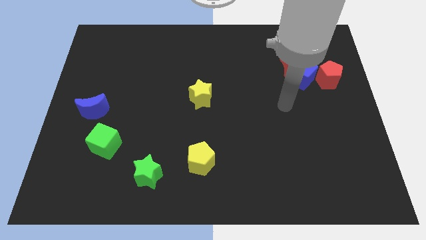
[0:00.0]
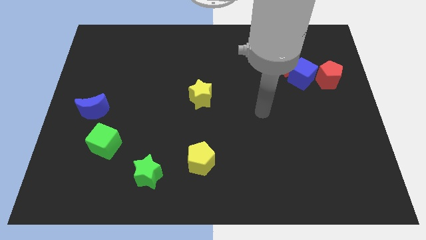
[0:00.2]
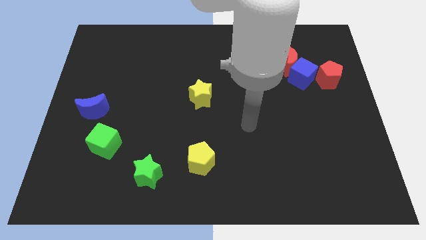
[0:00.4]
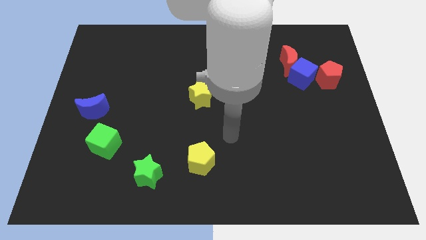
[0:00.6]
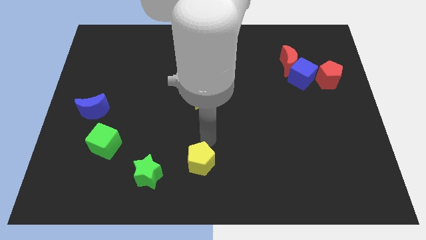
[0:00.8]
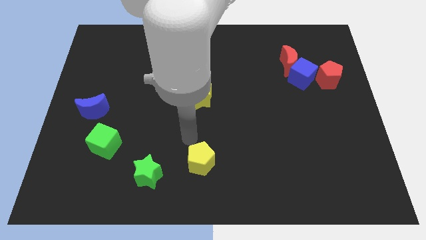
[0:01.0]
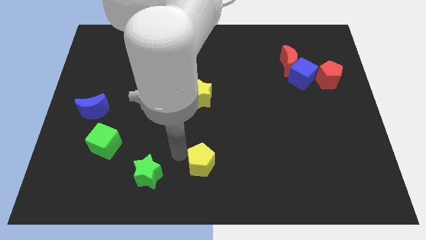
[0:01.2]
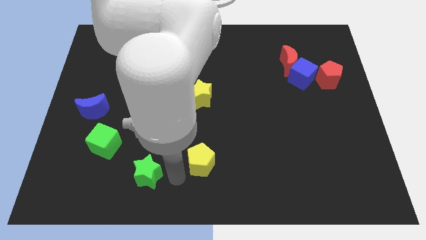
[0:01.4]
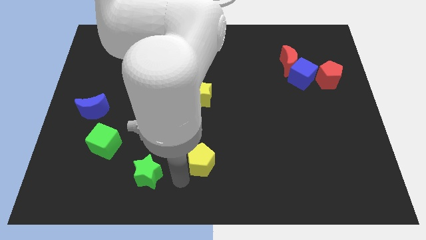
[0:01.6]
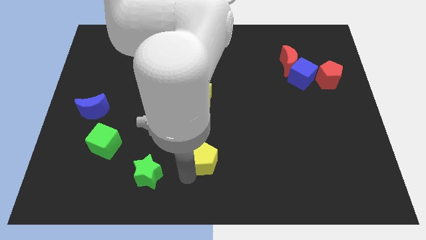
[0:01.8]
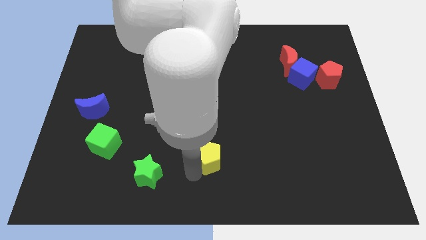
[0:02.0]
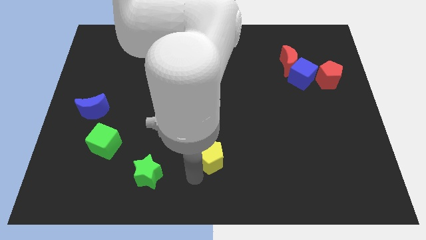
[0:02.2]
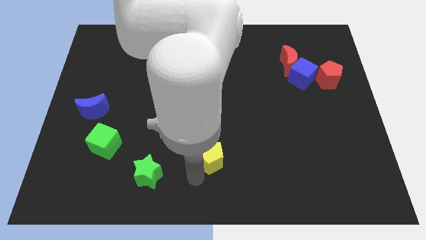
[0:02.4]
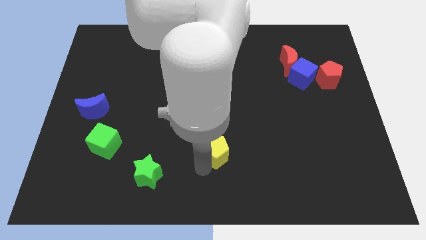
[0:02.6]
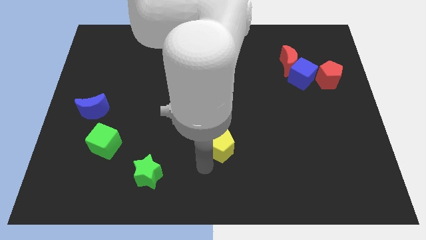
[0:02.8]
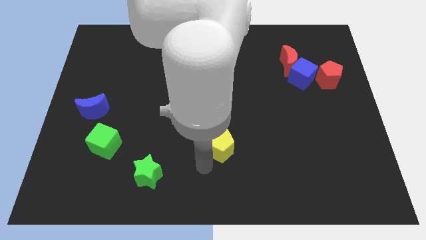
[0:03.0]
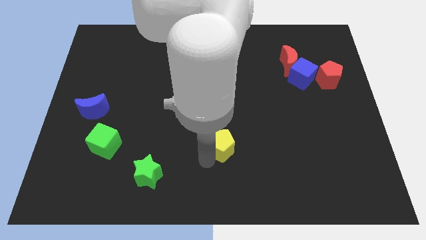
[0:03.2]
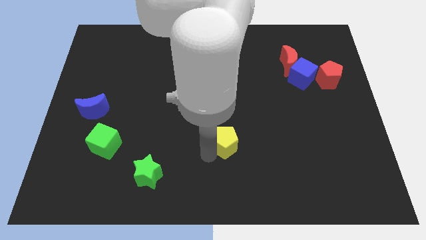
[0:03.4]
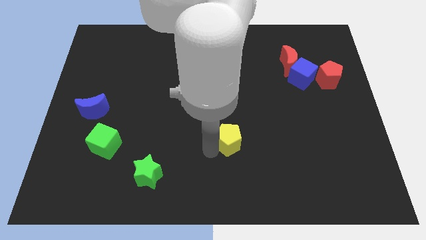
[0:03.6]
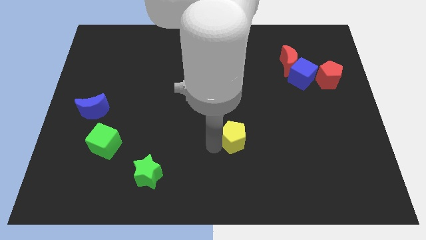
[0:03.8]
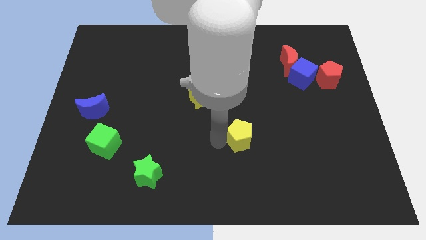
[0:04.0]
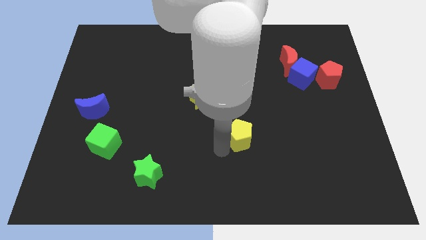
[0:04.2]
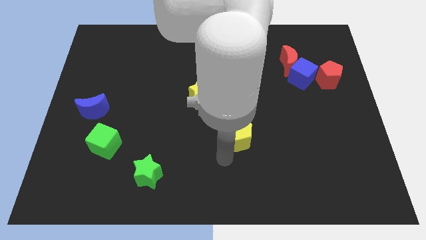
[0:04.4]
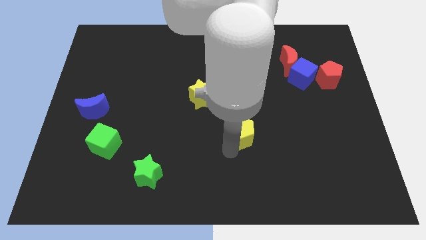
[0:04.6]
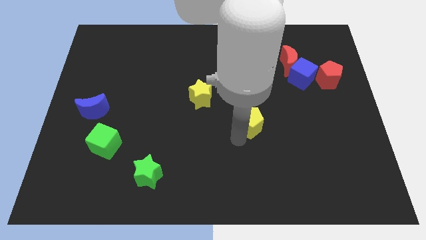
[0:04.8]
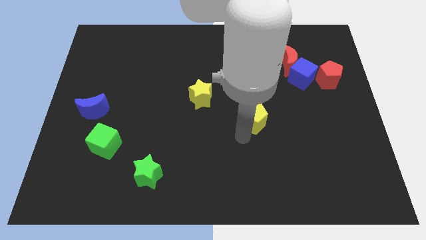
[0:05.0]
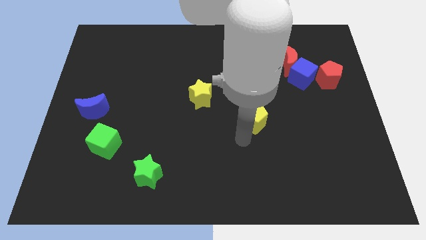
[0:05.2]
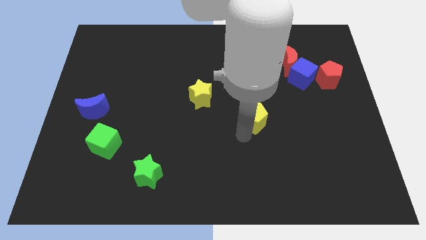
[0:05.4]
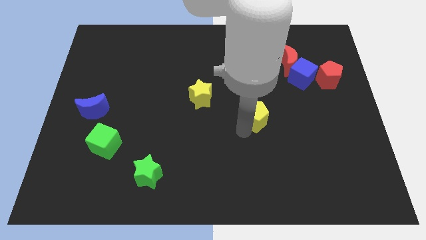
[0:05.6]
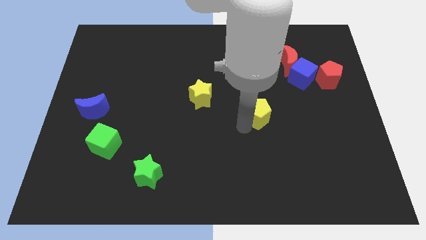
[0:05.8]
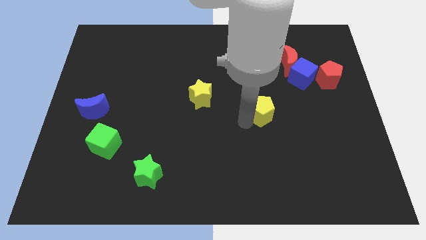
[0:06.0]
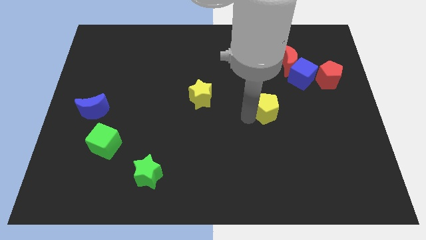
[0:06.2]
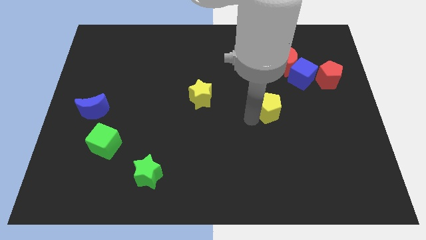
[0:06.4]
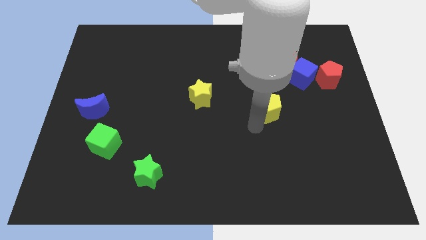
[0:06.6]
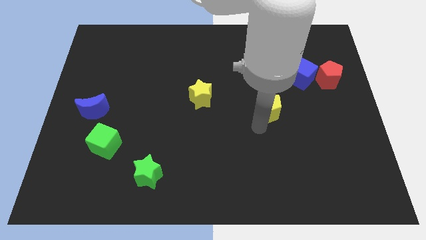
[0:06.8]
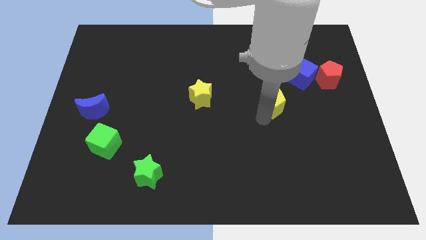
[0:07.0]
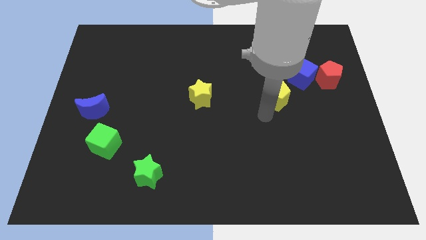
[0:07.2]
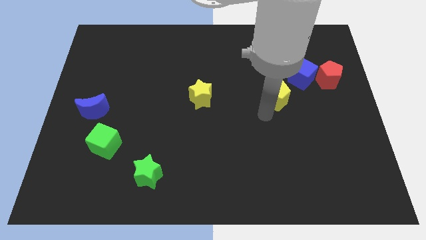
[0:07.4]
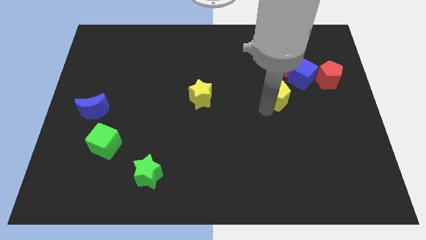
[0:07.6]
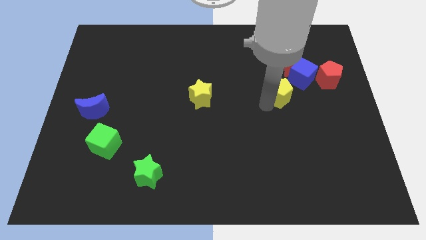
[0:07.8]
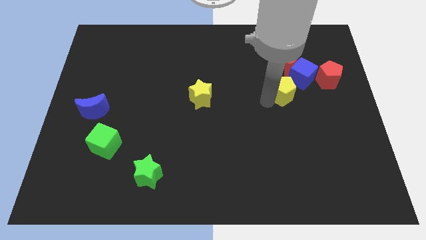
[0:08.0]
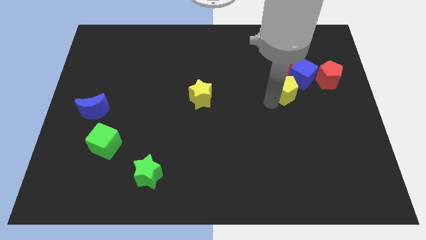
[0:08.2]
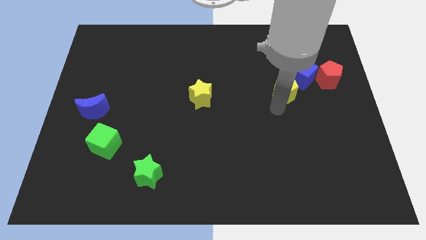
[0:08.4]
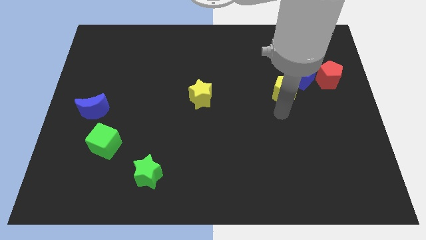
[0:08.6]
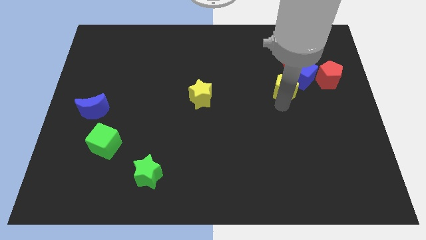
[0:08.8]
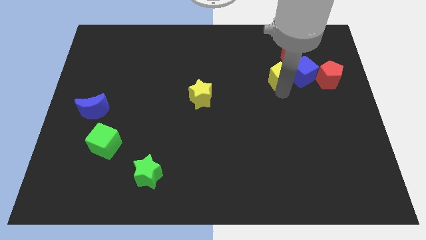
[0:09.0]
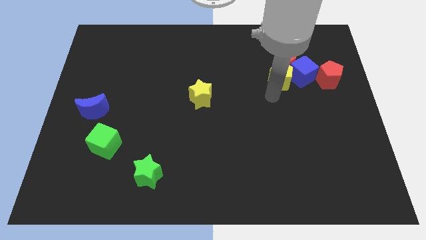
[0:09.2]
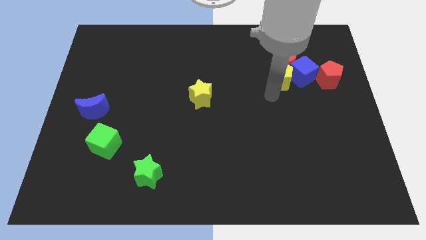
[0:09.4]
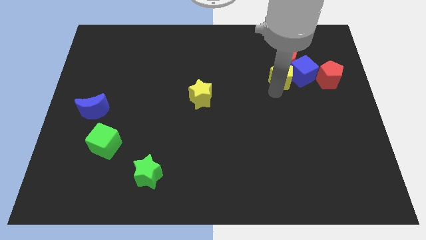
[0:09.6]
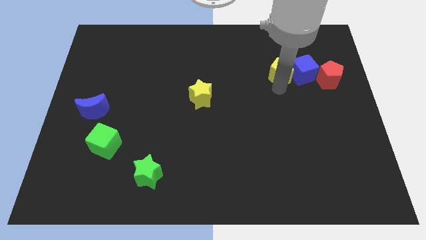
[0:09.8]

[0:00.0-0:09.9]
move the yellow pentagon to the red moon

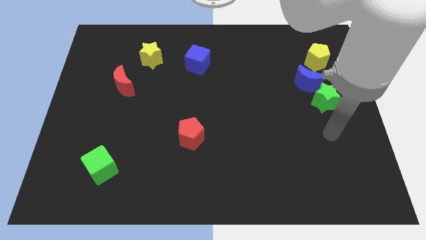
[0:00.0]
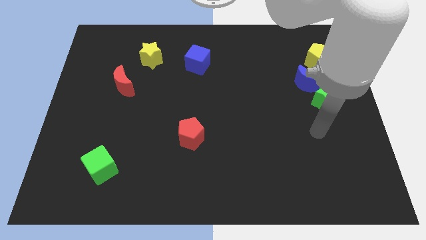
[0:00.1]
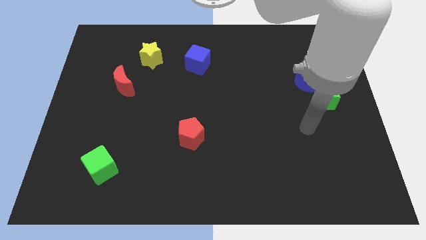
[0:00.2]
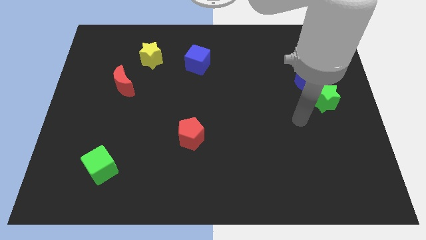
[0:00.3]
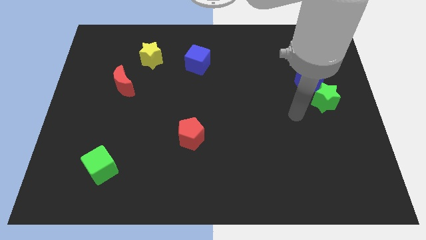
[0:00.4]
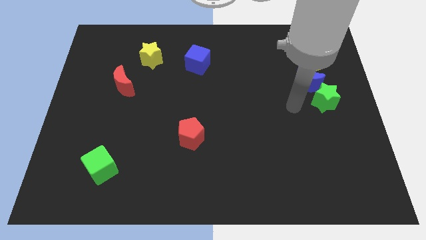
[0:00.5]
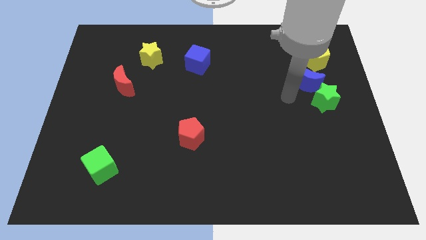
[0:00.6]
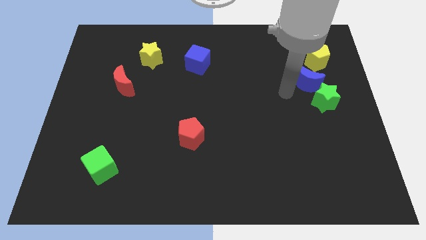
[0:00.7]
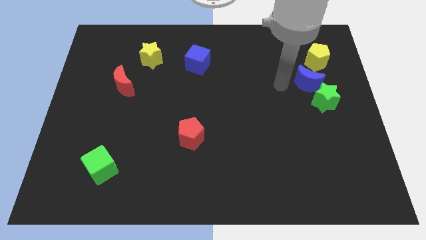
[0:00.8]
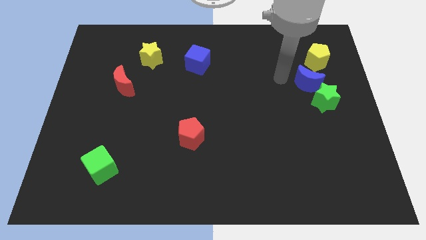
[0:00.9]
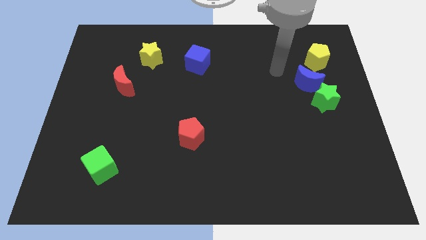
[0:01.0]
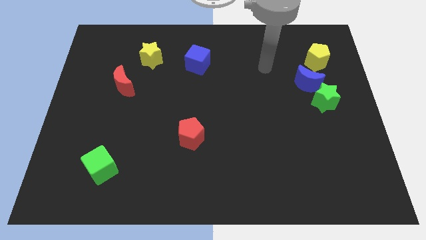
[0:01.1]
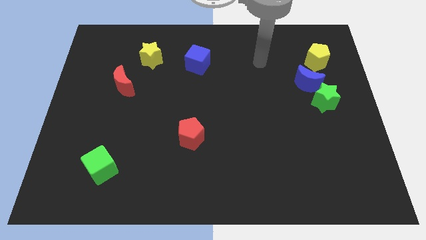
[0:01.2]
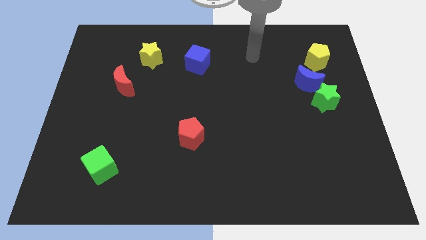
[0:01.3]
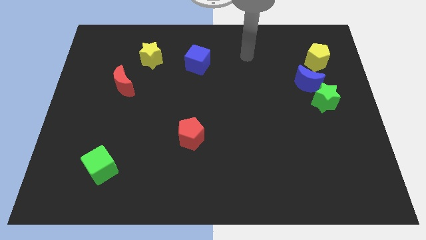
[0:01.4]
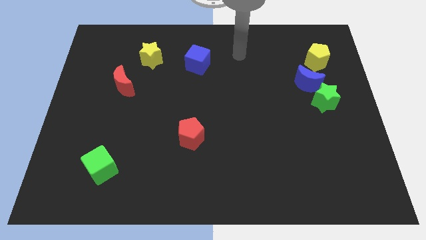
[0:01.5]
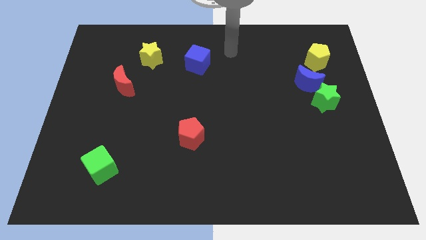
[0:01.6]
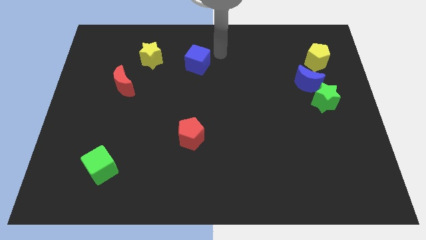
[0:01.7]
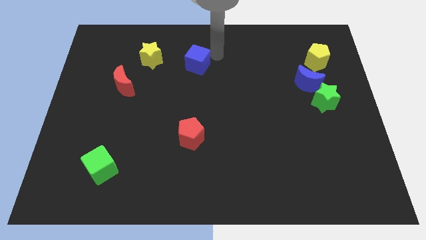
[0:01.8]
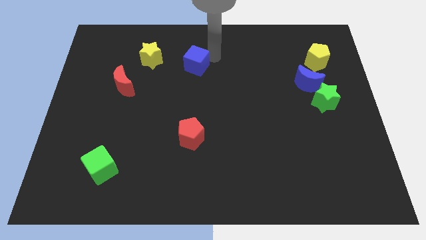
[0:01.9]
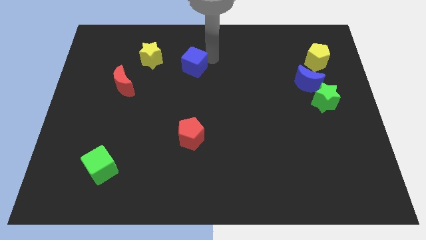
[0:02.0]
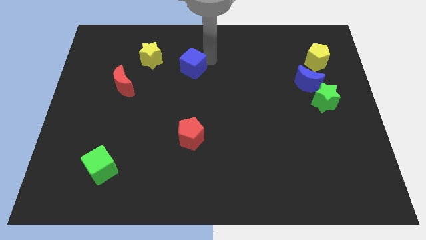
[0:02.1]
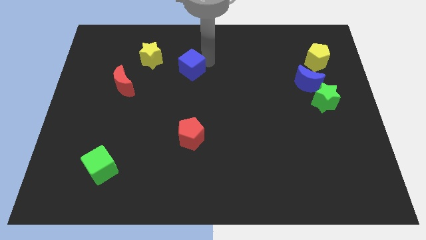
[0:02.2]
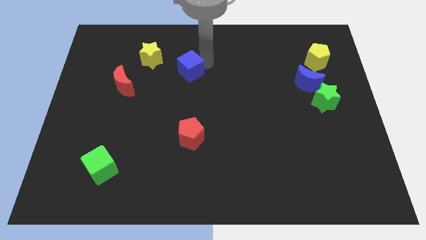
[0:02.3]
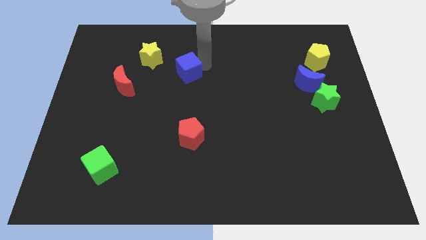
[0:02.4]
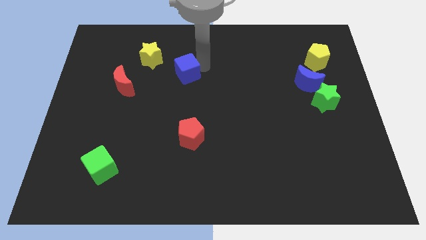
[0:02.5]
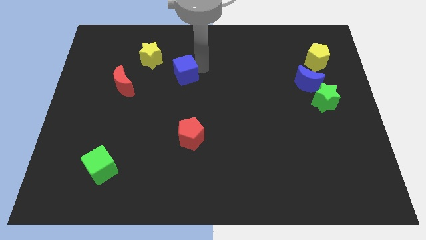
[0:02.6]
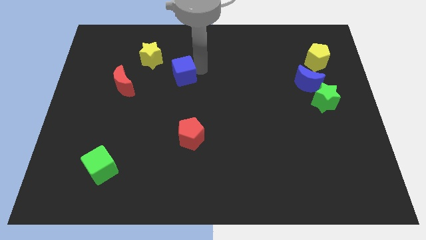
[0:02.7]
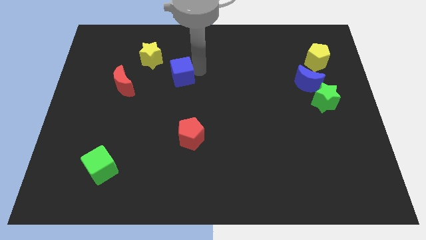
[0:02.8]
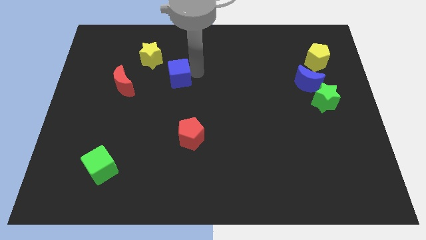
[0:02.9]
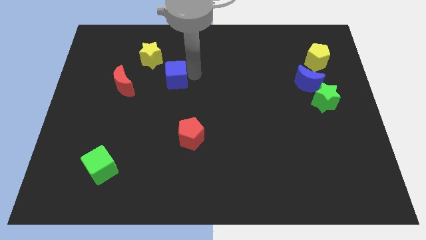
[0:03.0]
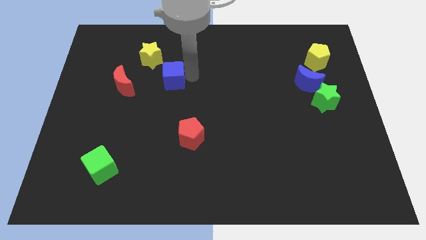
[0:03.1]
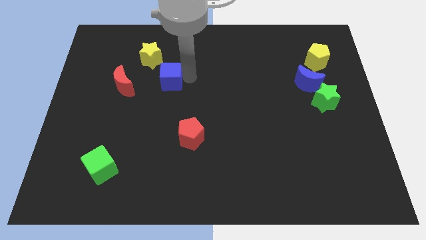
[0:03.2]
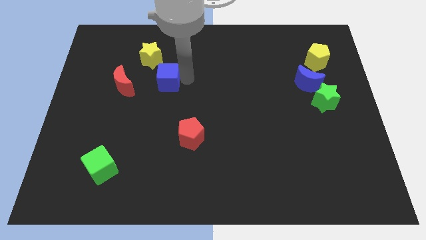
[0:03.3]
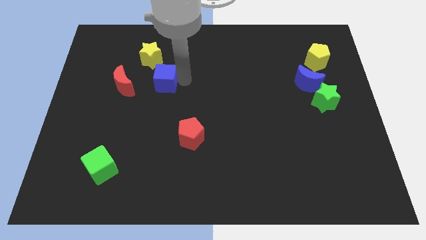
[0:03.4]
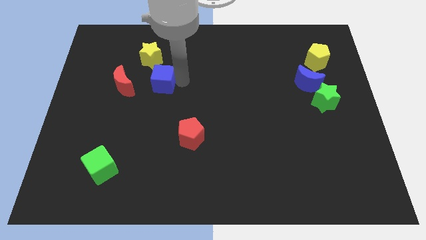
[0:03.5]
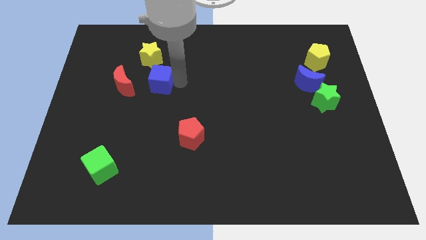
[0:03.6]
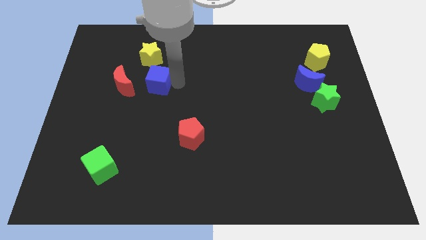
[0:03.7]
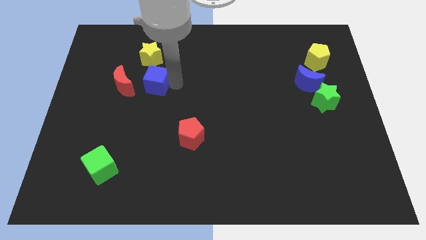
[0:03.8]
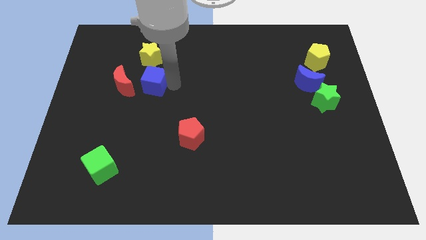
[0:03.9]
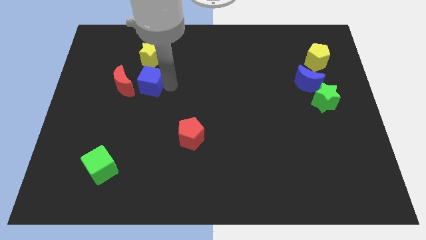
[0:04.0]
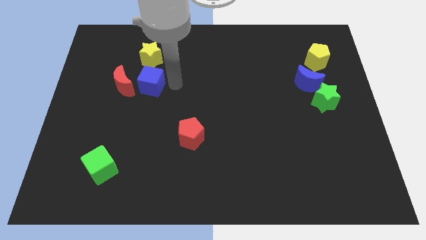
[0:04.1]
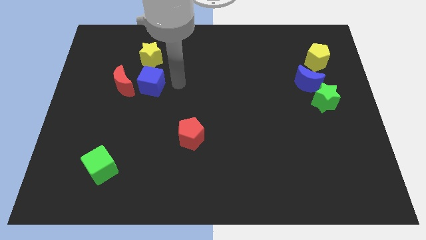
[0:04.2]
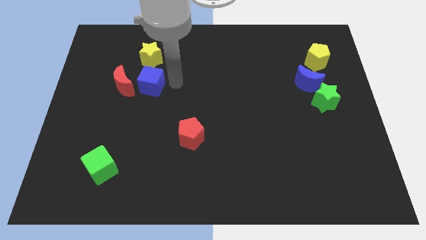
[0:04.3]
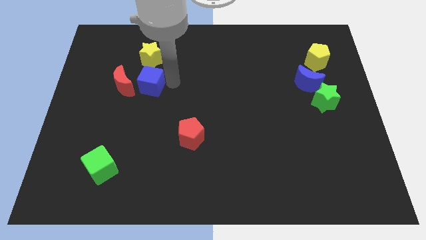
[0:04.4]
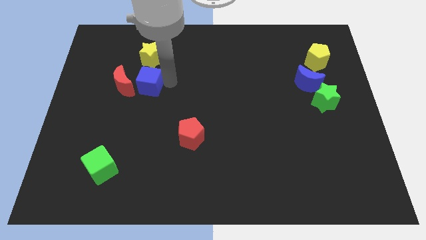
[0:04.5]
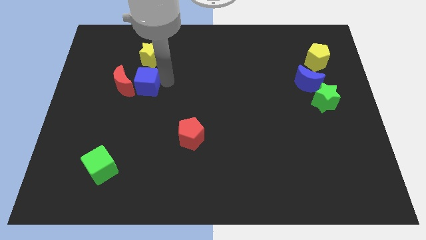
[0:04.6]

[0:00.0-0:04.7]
slide the blue cube close to the red moon
